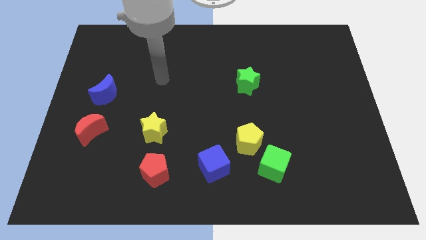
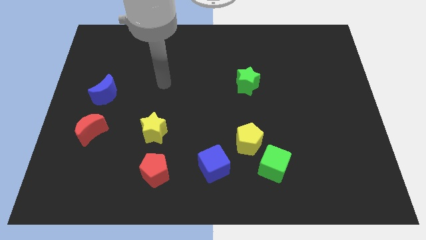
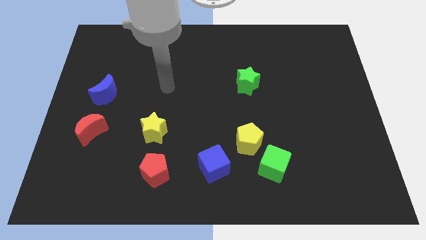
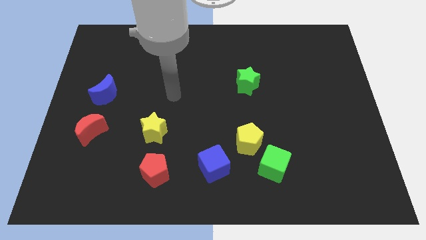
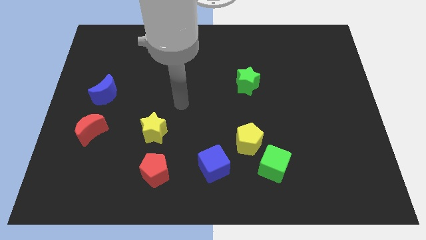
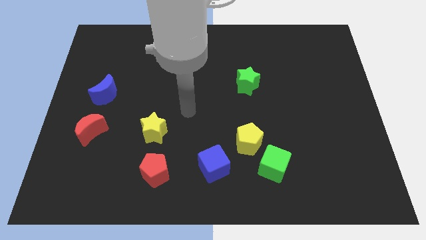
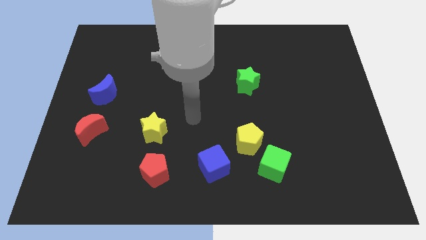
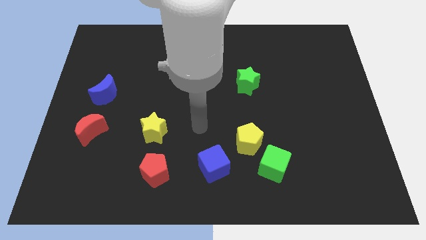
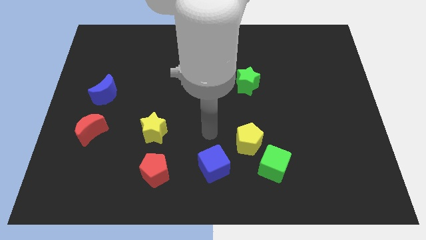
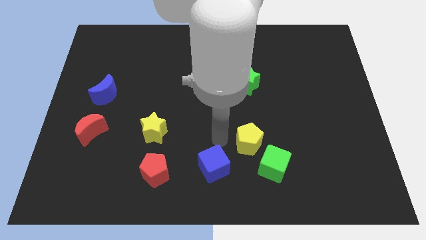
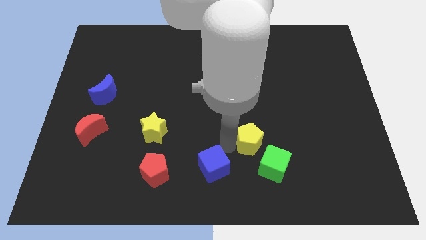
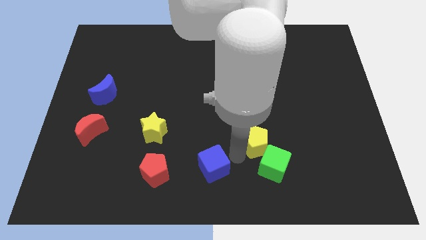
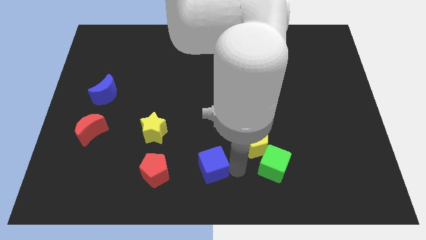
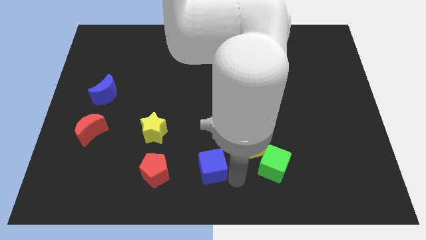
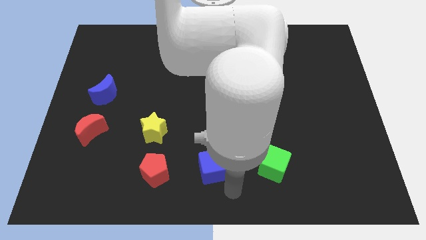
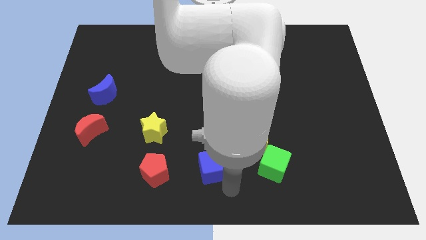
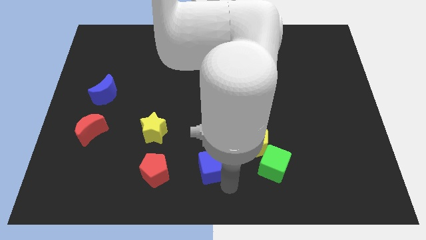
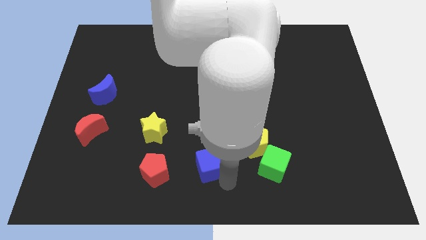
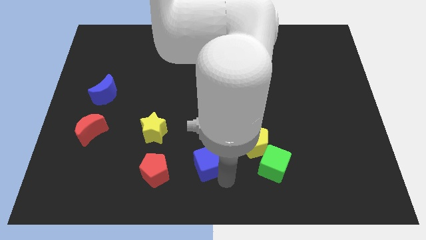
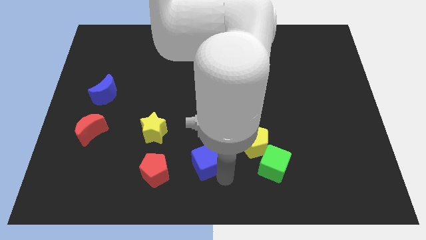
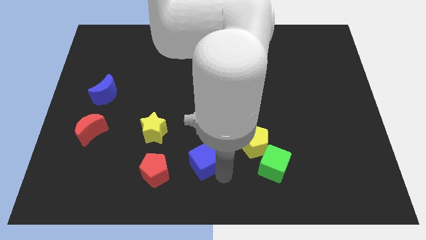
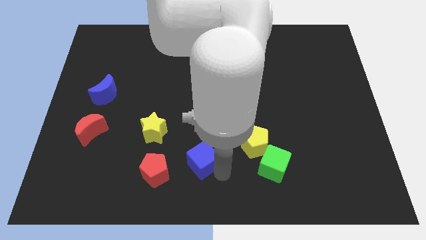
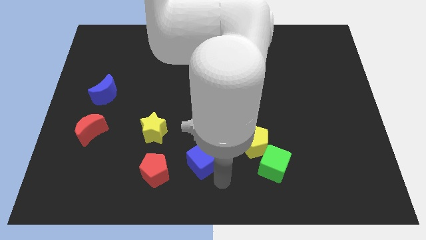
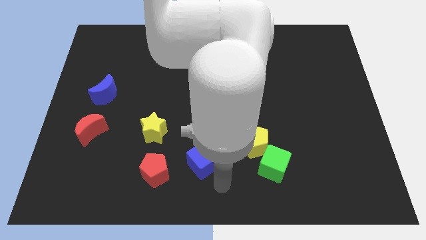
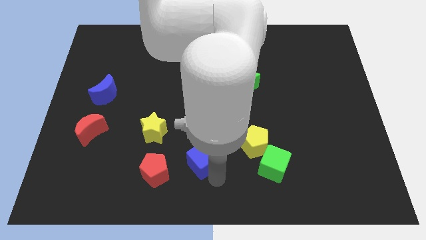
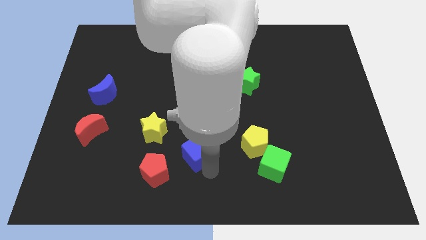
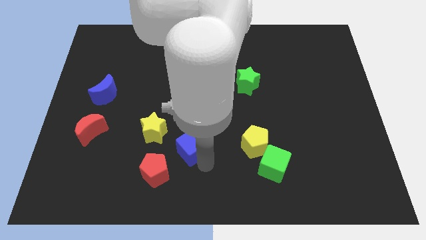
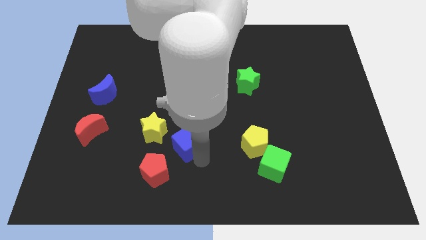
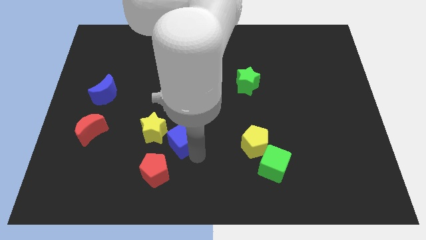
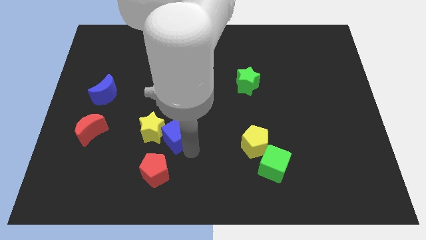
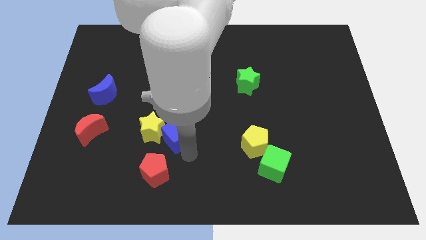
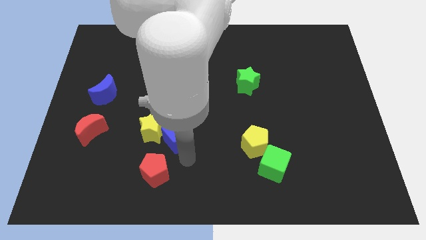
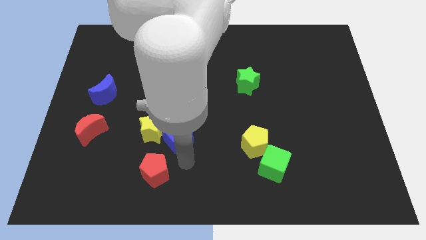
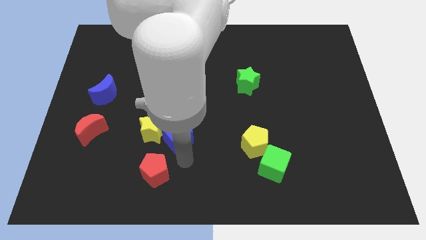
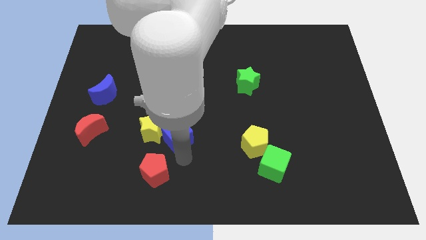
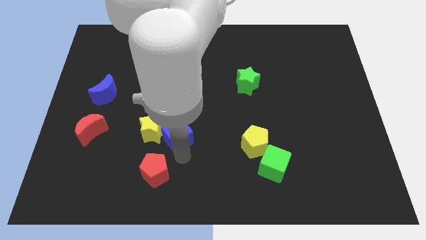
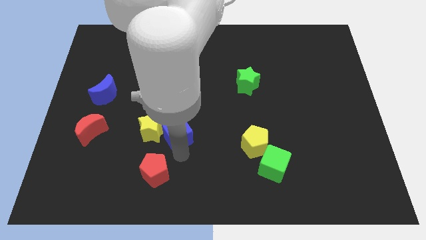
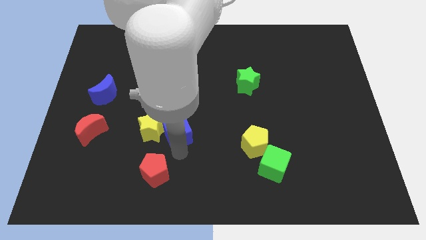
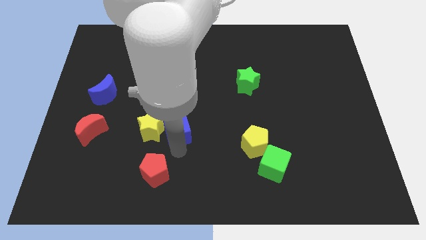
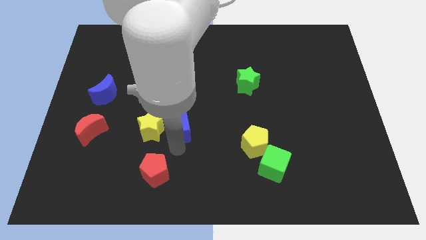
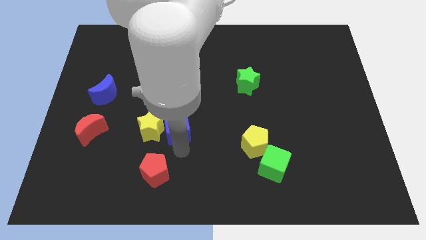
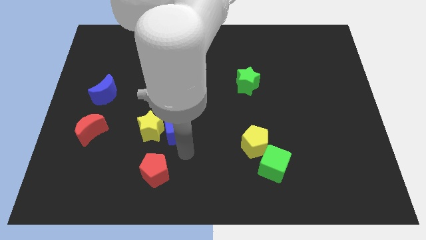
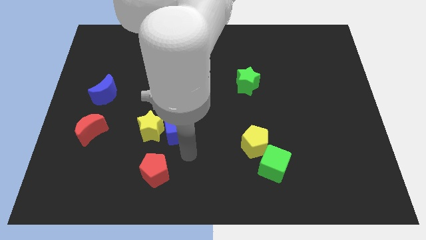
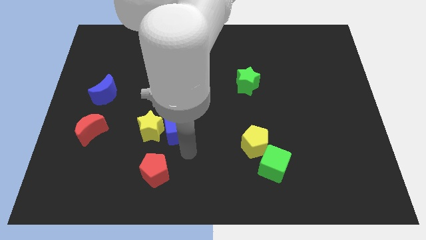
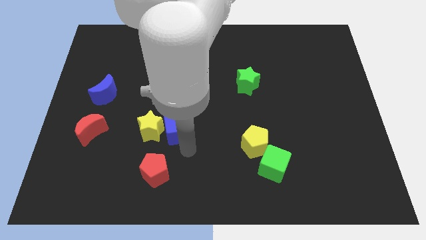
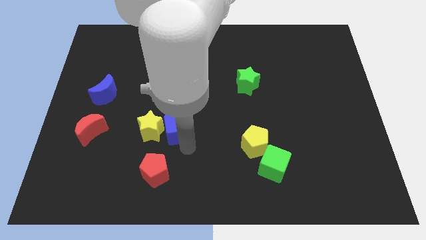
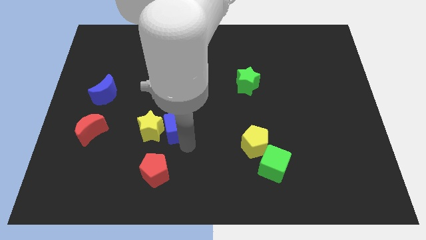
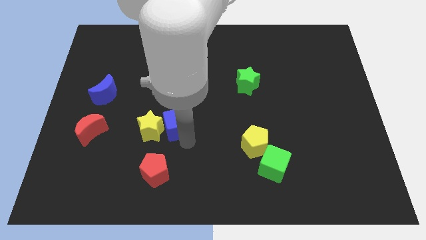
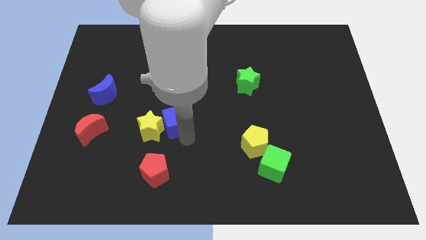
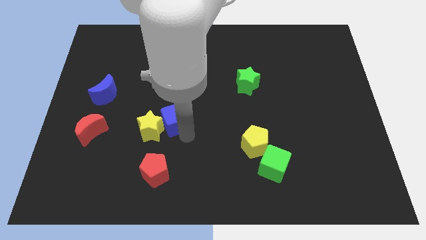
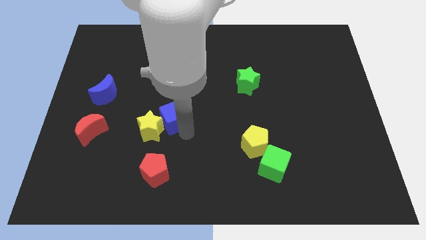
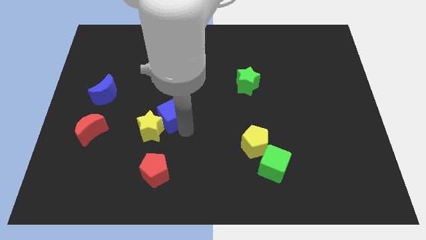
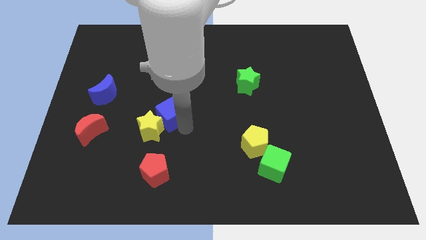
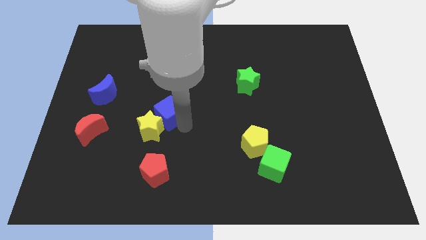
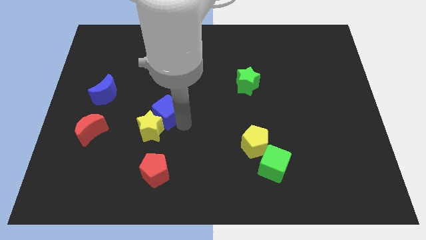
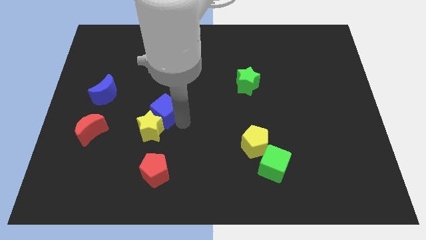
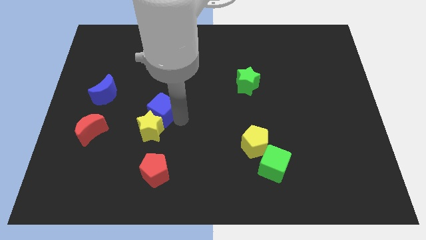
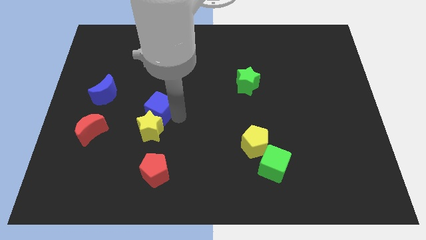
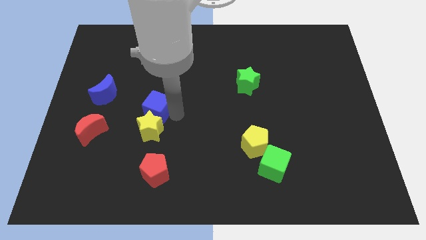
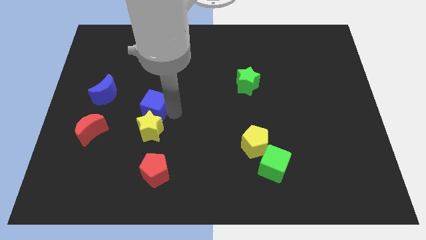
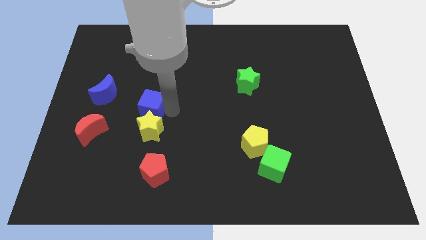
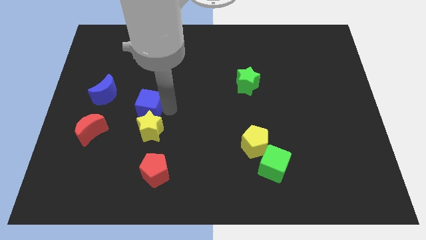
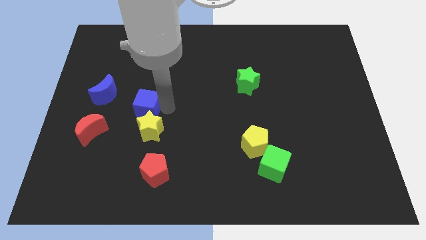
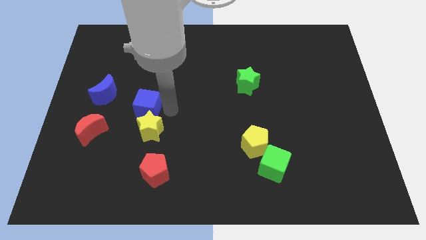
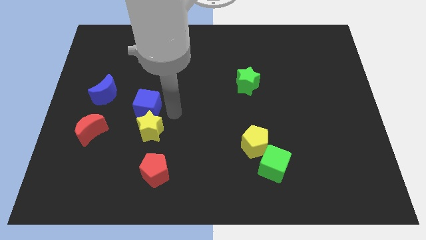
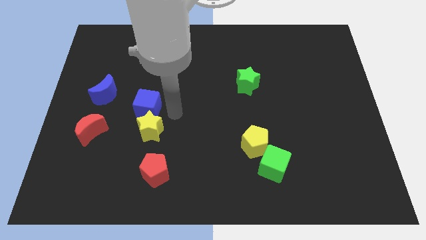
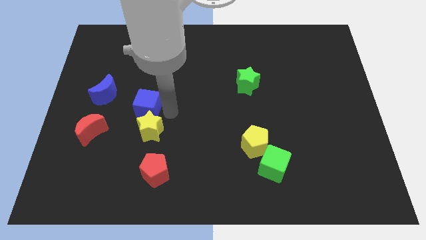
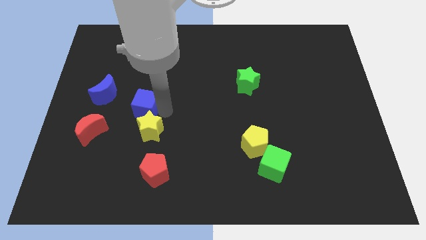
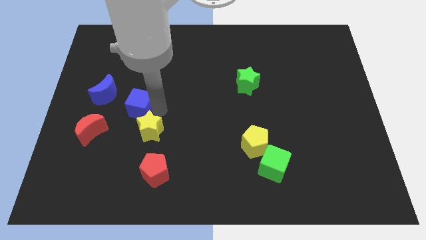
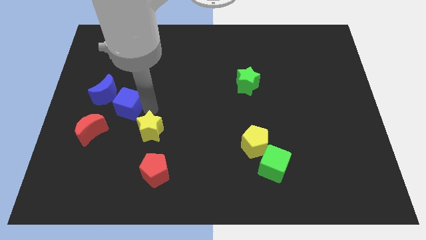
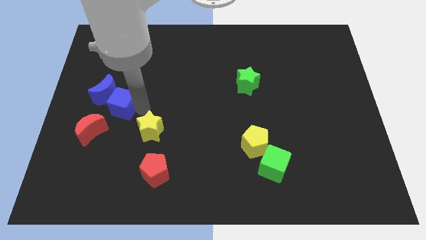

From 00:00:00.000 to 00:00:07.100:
move the blue cube next to the blue moon
